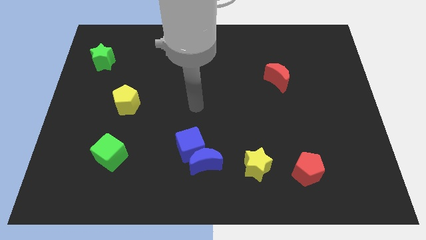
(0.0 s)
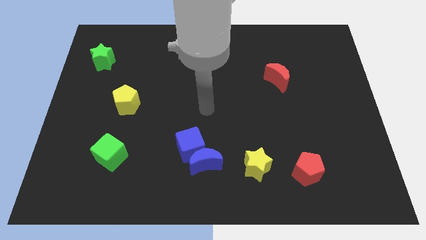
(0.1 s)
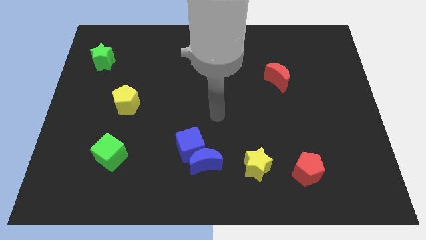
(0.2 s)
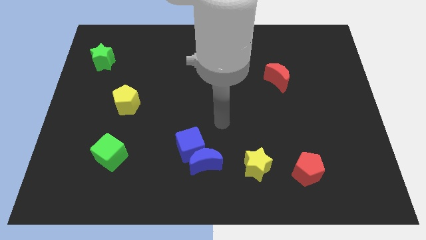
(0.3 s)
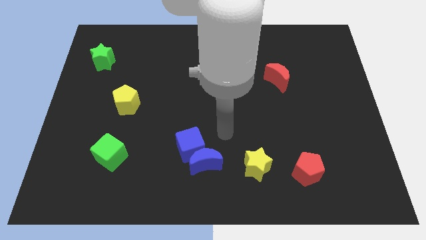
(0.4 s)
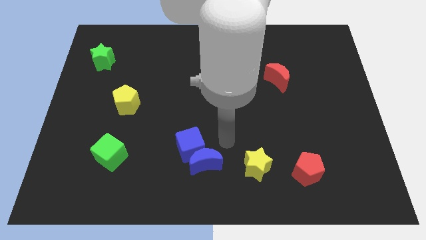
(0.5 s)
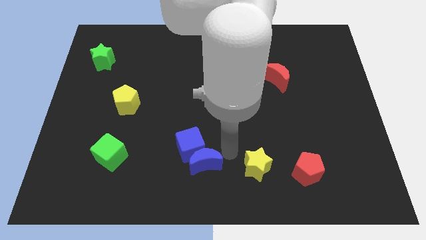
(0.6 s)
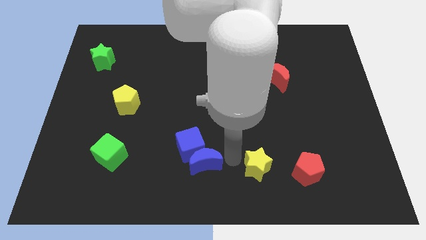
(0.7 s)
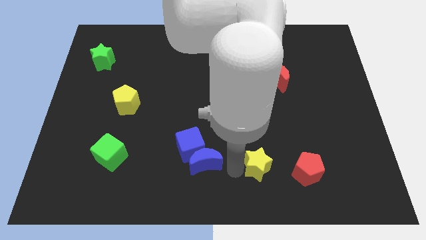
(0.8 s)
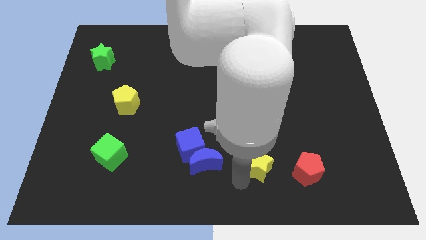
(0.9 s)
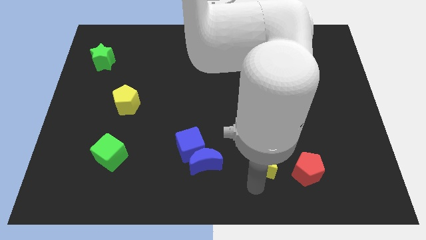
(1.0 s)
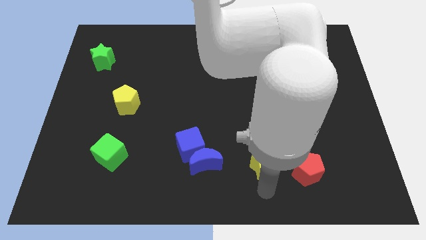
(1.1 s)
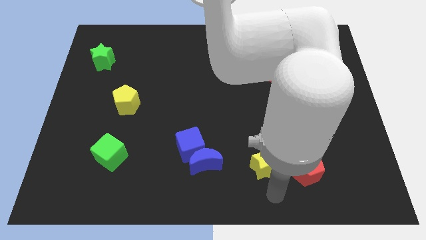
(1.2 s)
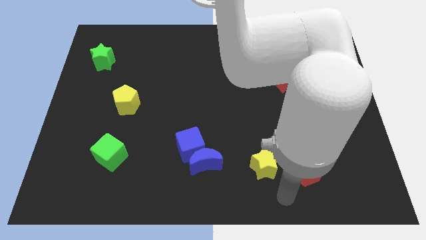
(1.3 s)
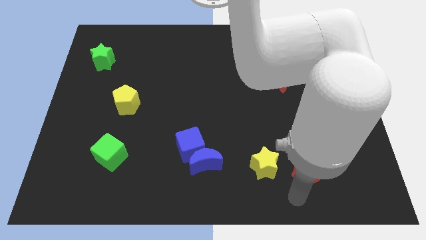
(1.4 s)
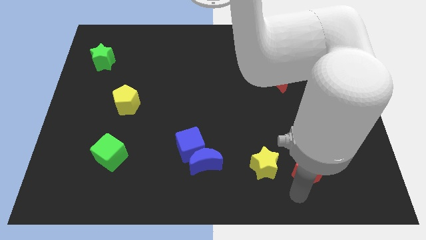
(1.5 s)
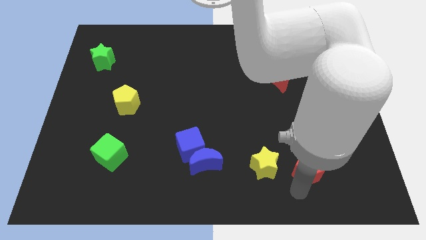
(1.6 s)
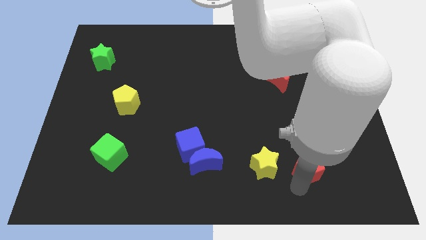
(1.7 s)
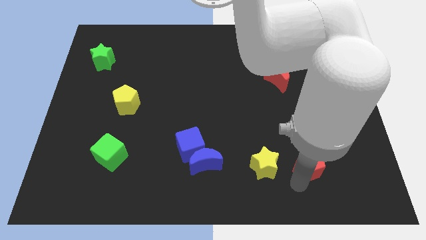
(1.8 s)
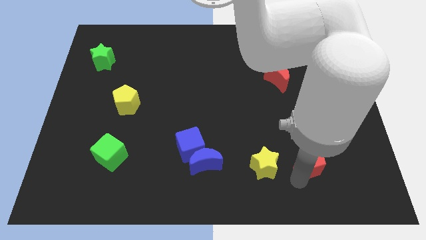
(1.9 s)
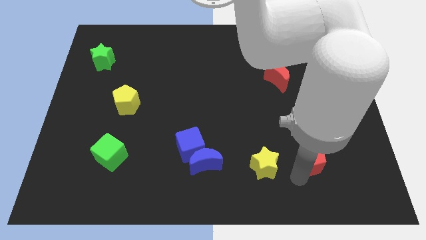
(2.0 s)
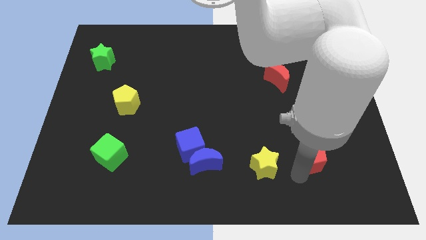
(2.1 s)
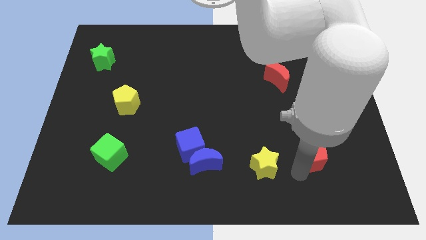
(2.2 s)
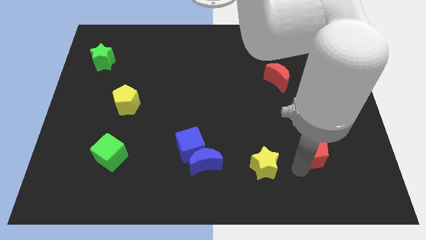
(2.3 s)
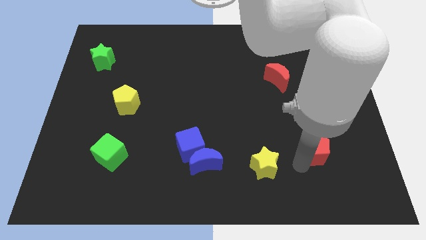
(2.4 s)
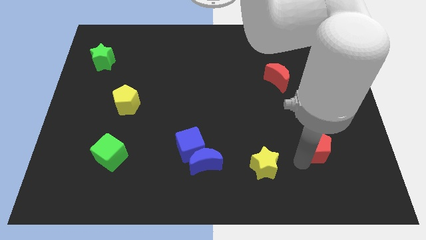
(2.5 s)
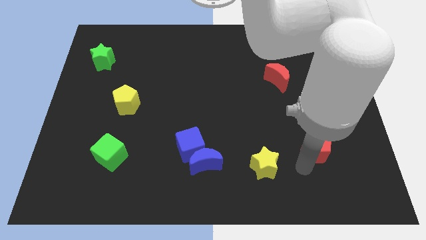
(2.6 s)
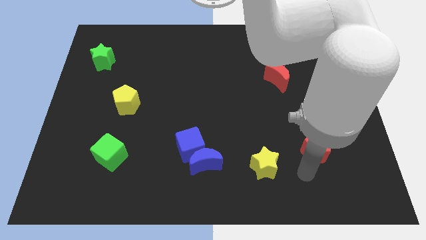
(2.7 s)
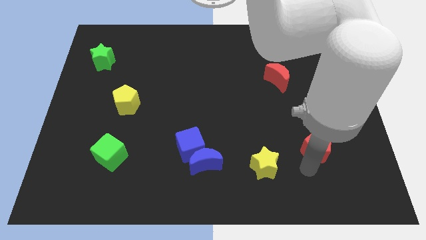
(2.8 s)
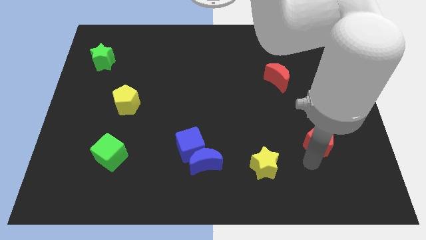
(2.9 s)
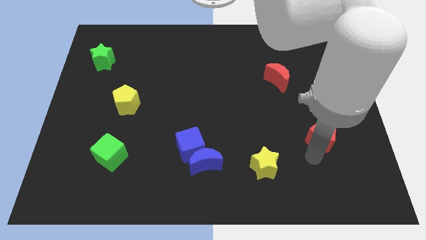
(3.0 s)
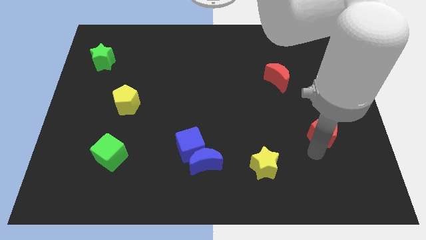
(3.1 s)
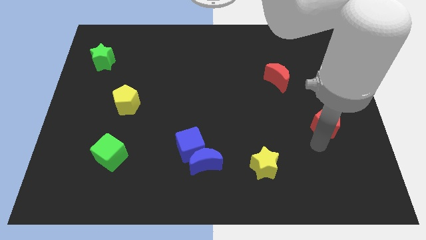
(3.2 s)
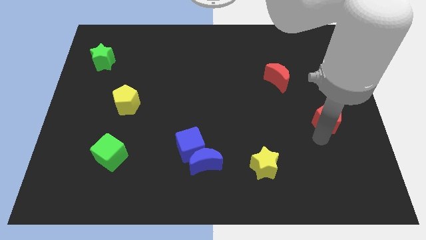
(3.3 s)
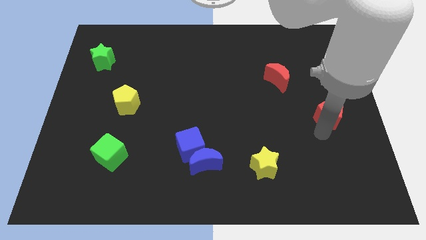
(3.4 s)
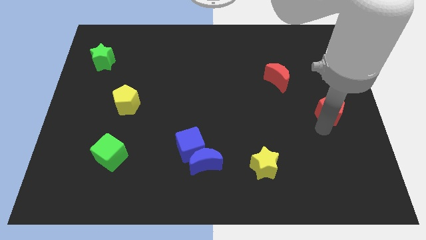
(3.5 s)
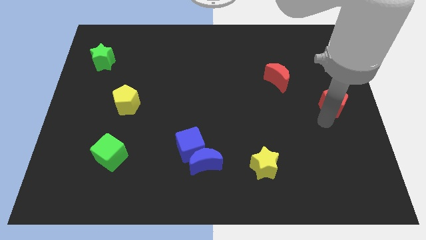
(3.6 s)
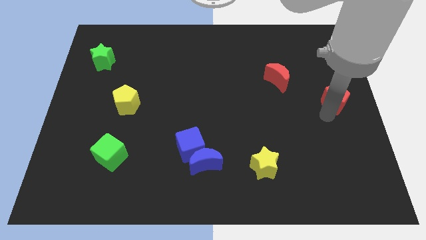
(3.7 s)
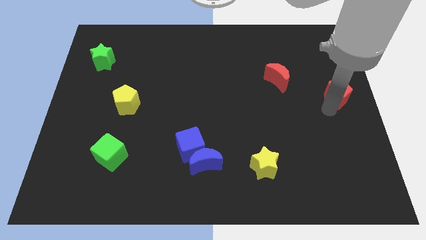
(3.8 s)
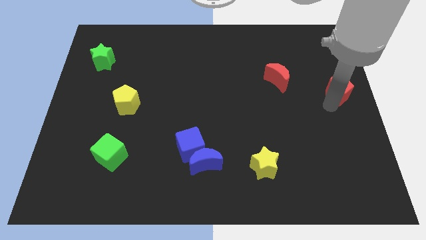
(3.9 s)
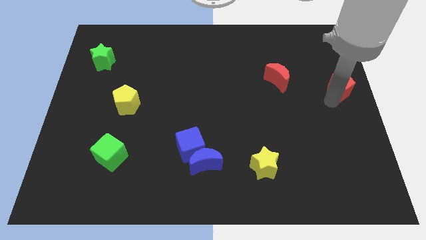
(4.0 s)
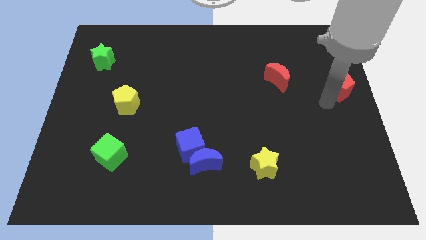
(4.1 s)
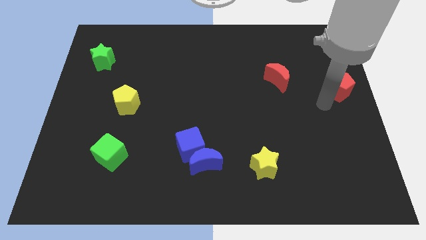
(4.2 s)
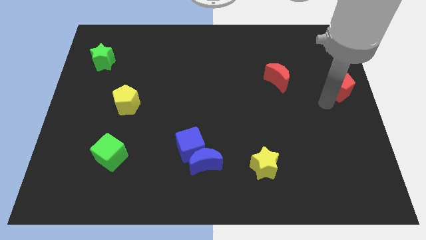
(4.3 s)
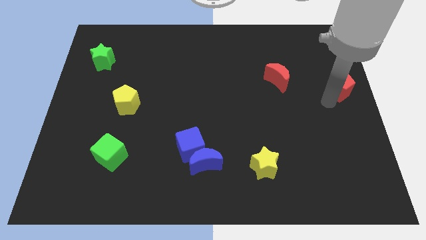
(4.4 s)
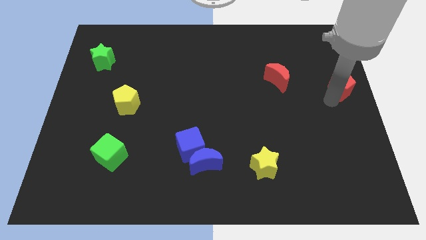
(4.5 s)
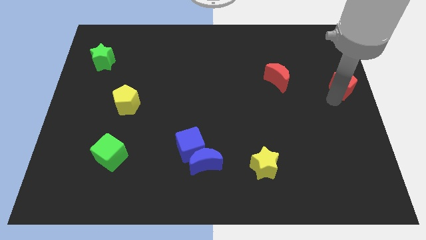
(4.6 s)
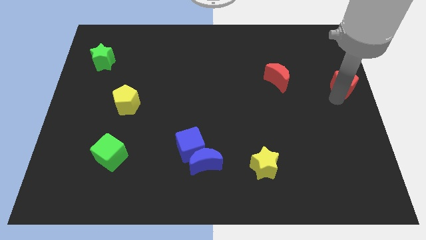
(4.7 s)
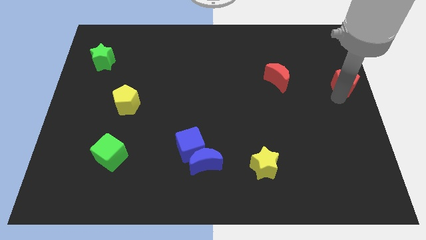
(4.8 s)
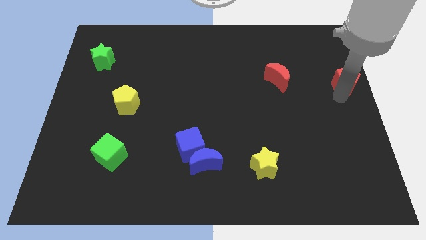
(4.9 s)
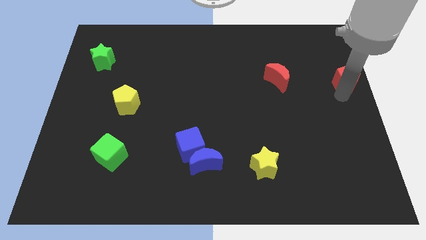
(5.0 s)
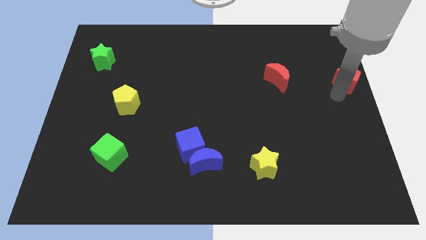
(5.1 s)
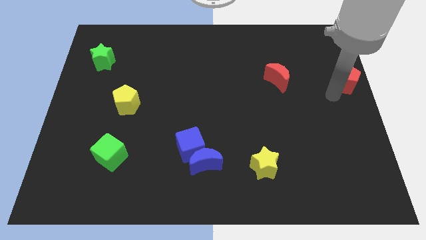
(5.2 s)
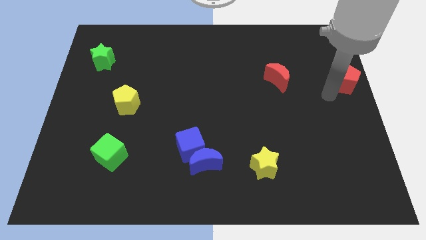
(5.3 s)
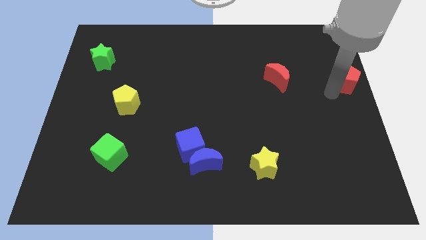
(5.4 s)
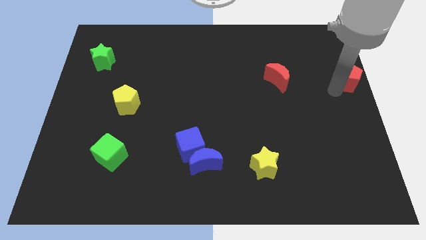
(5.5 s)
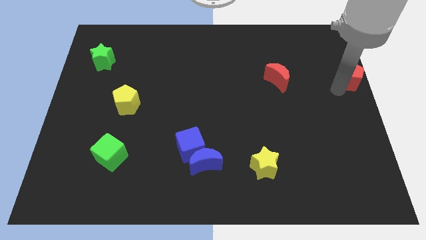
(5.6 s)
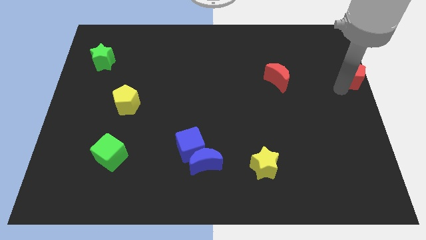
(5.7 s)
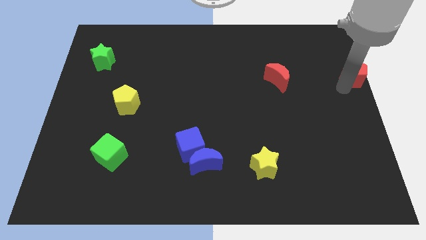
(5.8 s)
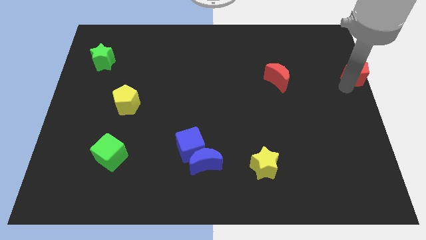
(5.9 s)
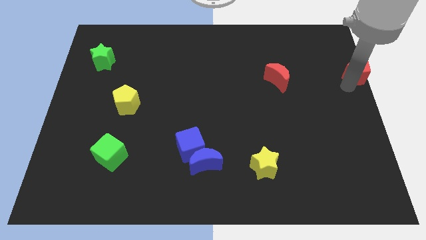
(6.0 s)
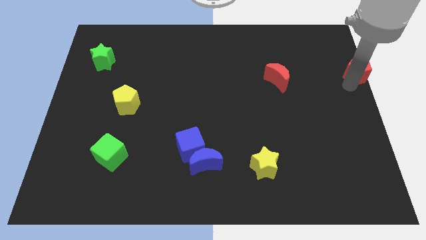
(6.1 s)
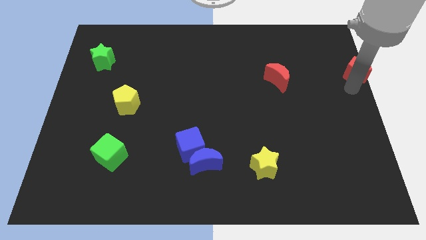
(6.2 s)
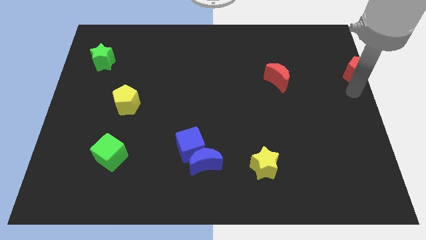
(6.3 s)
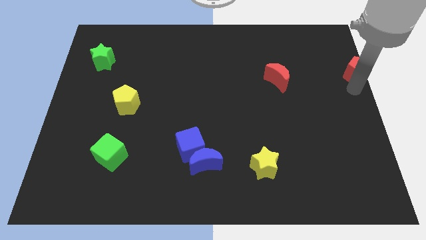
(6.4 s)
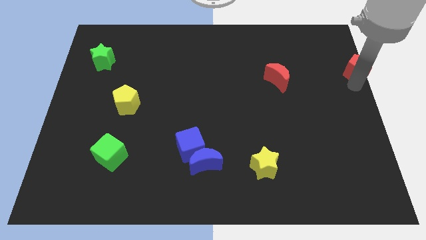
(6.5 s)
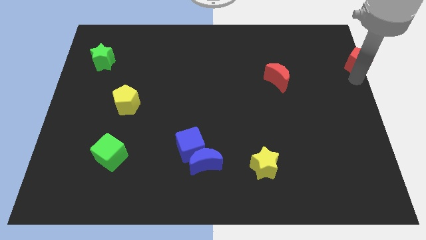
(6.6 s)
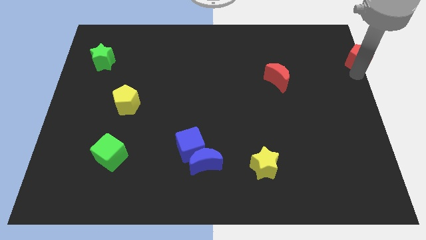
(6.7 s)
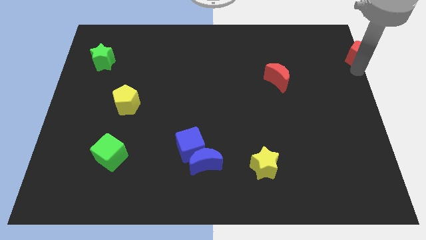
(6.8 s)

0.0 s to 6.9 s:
push the red pentagon to the top right corner

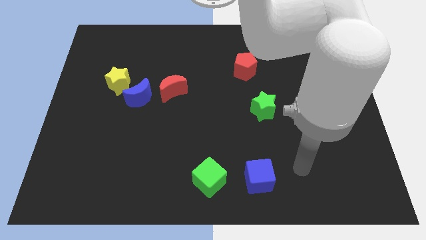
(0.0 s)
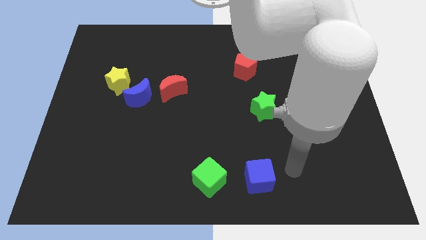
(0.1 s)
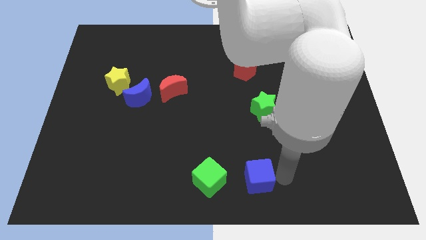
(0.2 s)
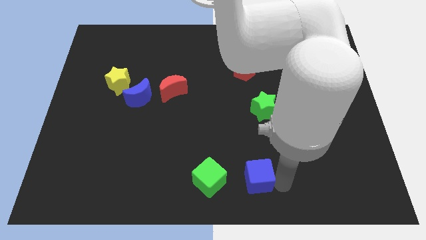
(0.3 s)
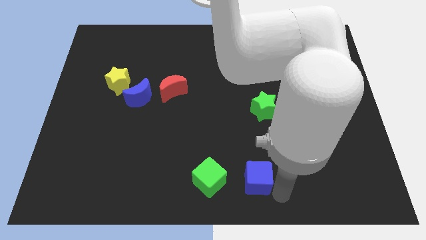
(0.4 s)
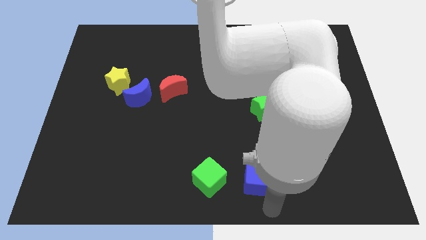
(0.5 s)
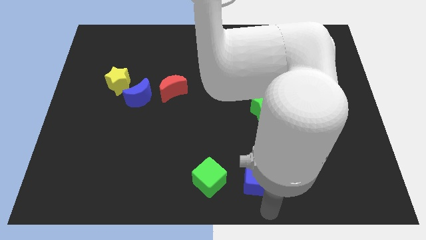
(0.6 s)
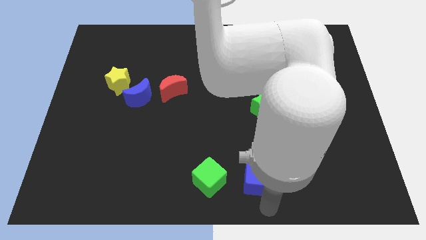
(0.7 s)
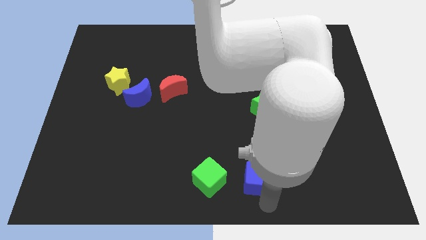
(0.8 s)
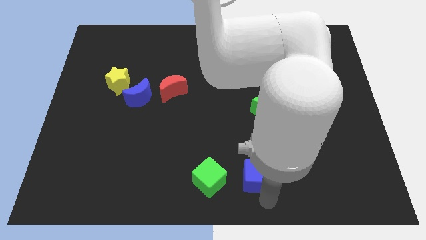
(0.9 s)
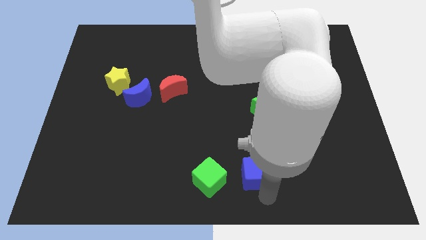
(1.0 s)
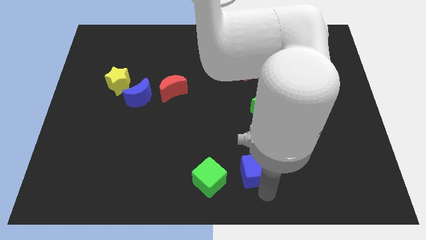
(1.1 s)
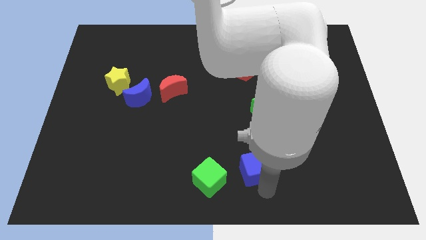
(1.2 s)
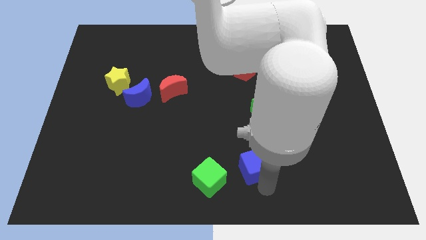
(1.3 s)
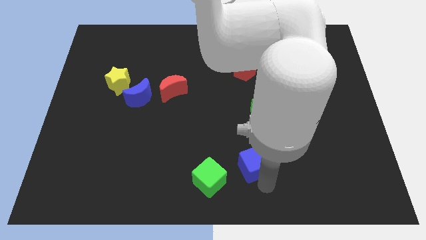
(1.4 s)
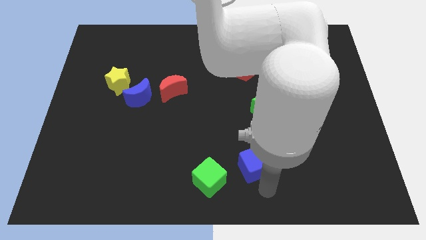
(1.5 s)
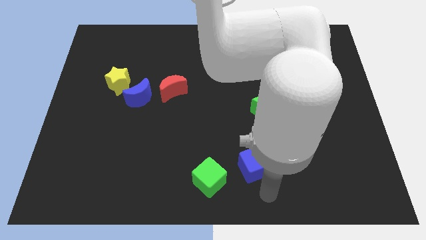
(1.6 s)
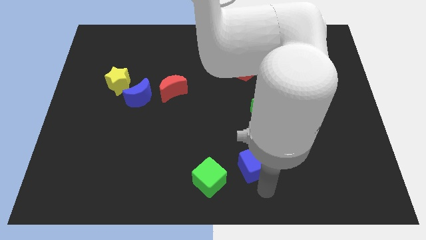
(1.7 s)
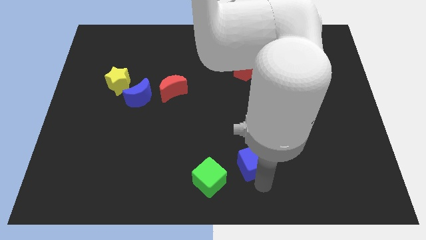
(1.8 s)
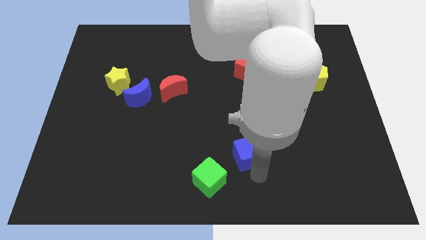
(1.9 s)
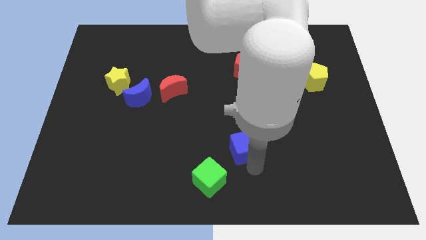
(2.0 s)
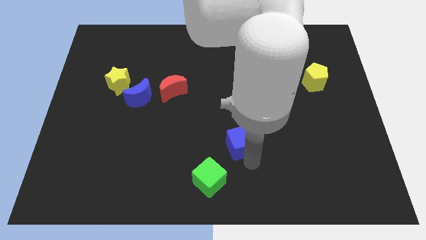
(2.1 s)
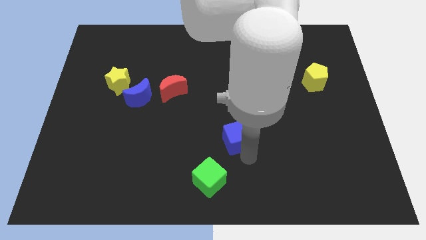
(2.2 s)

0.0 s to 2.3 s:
put the blue cube to the middle
